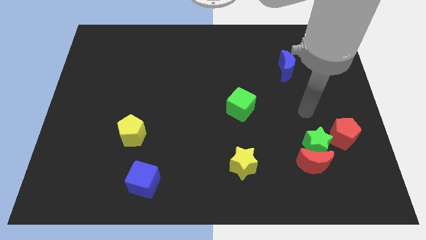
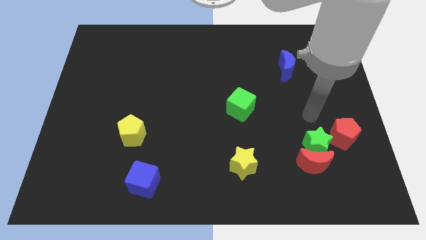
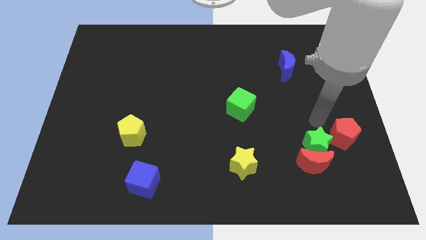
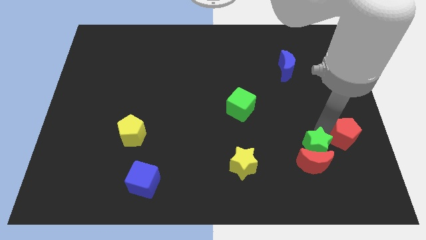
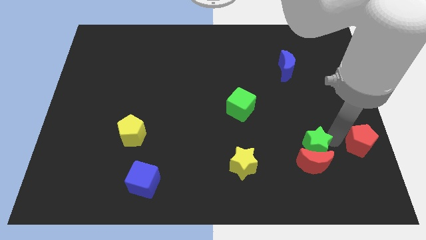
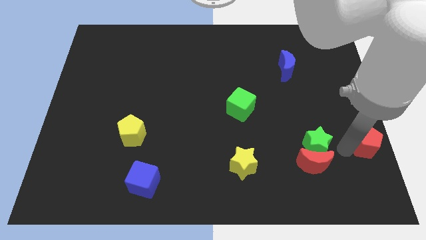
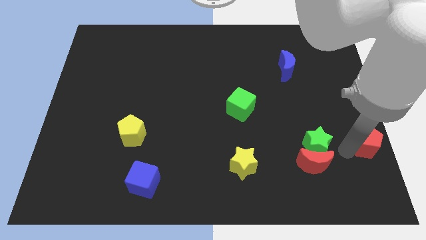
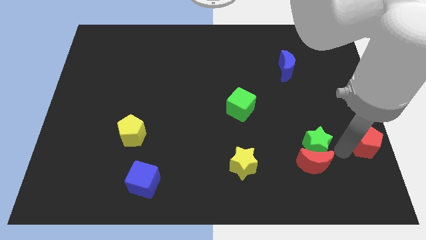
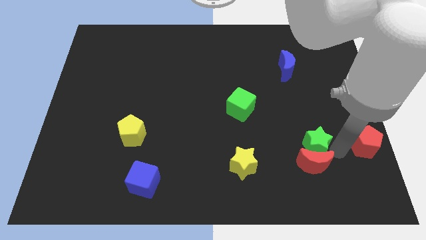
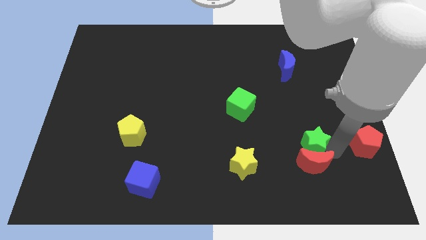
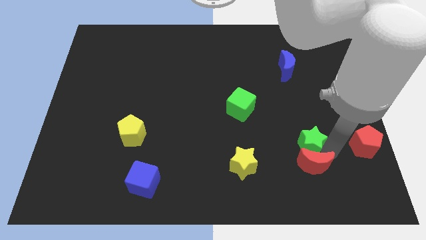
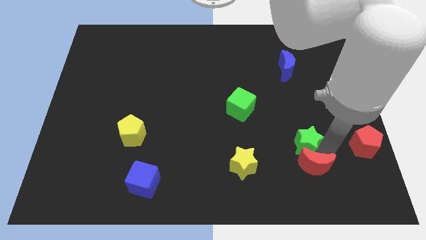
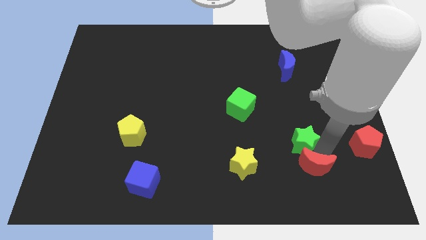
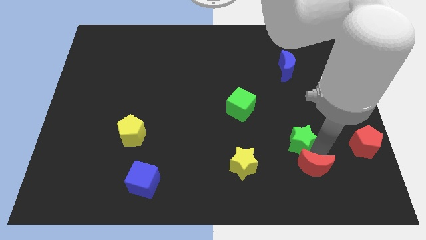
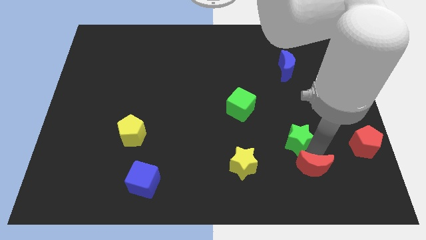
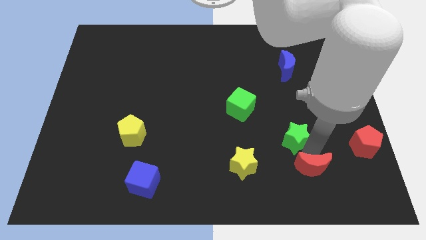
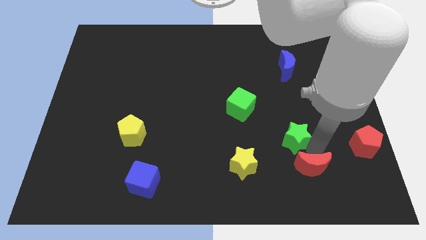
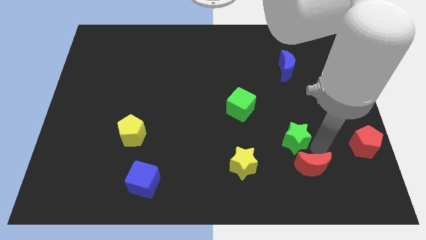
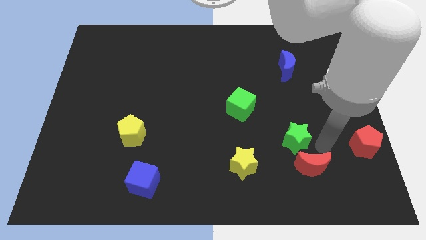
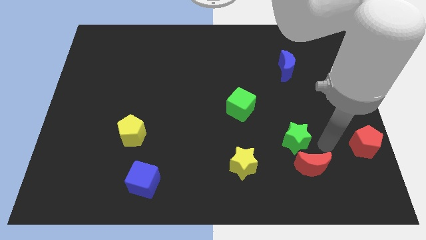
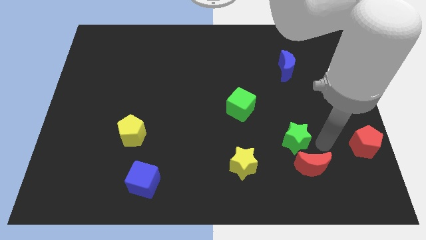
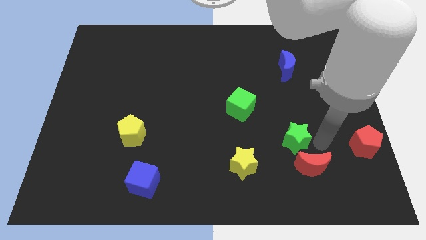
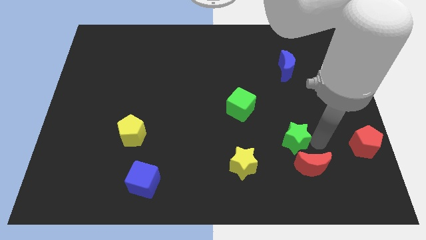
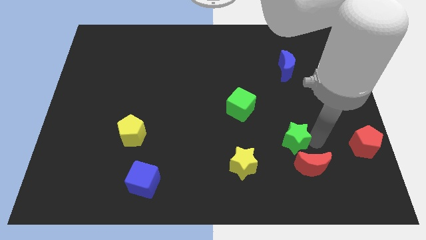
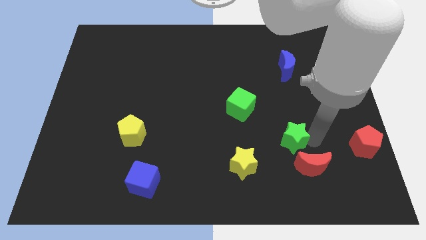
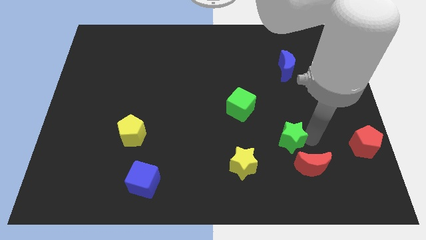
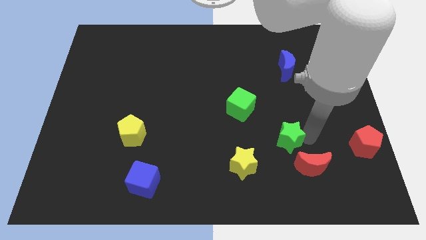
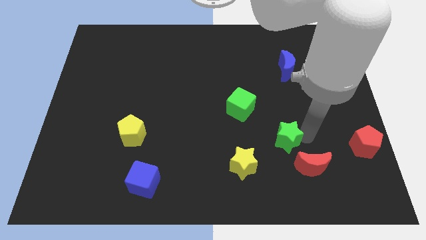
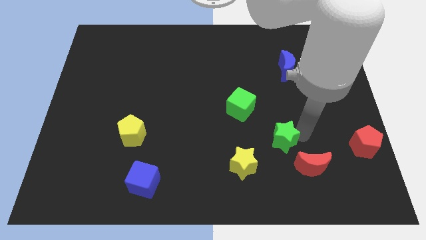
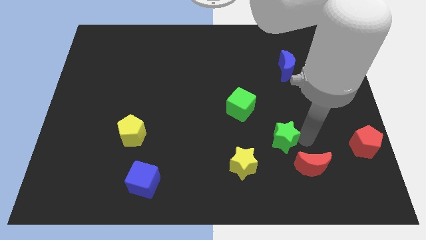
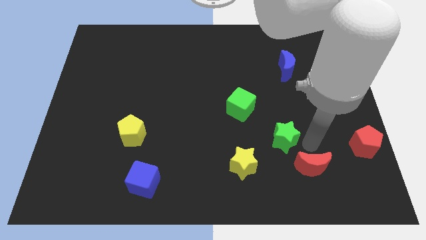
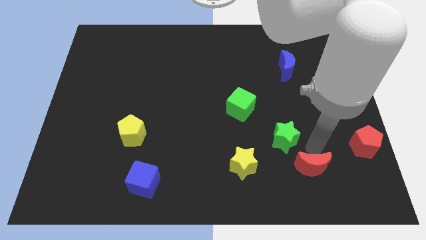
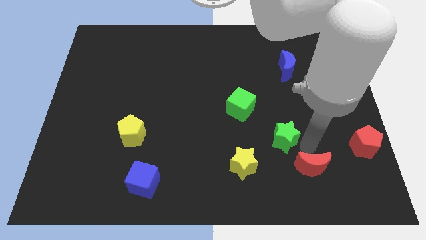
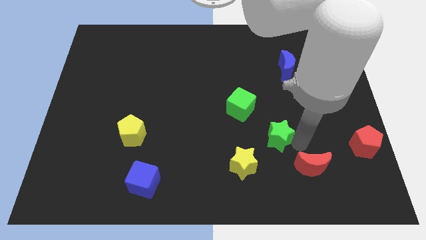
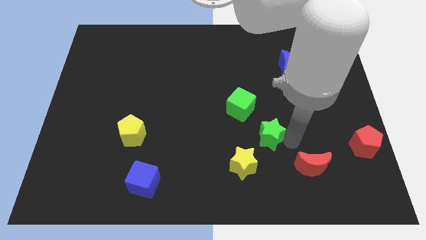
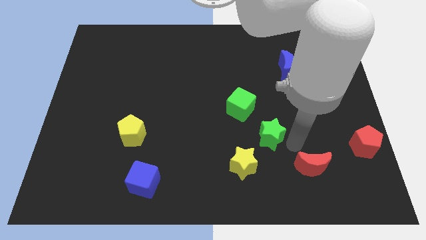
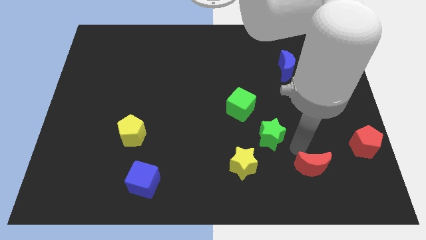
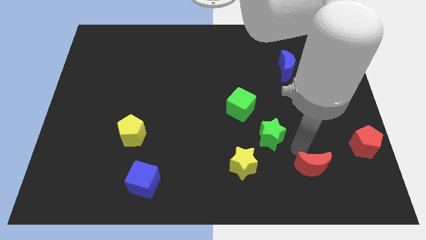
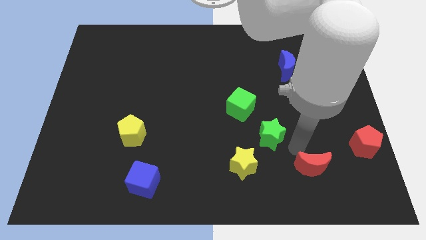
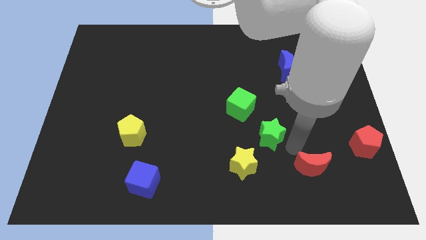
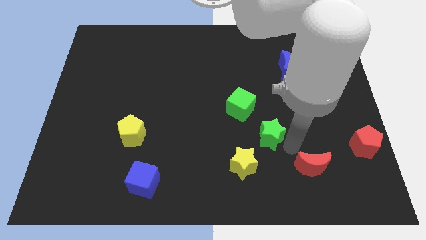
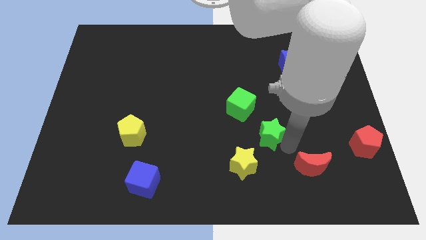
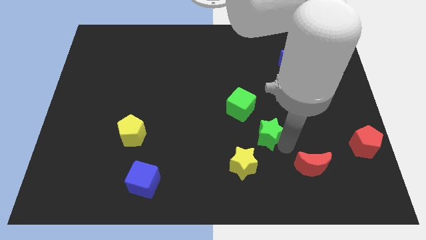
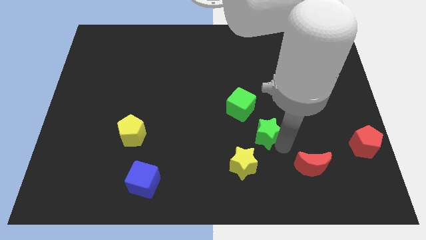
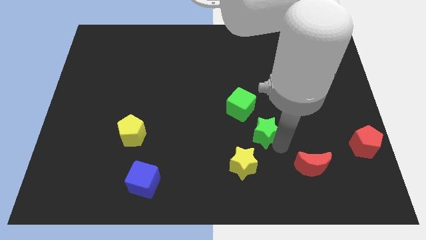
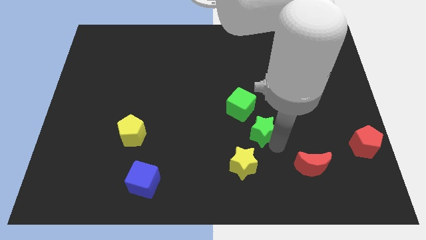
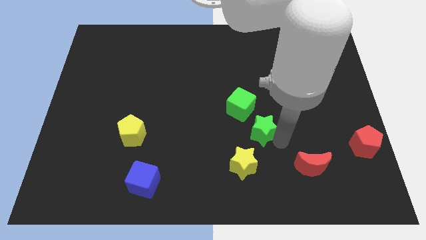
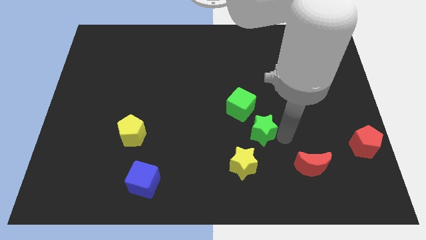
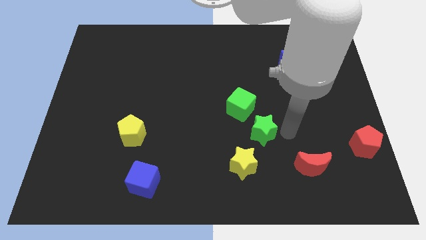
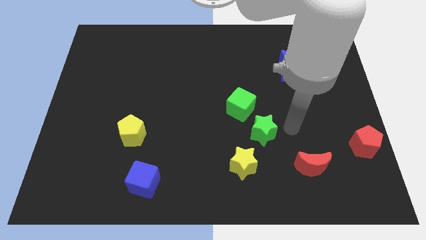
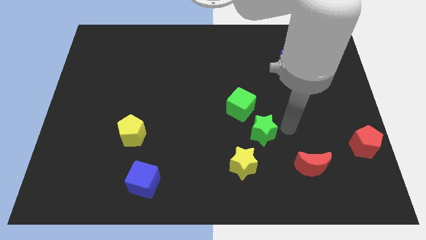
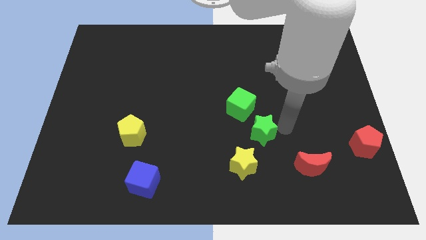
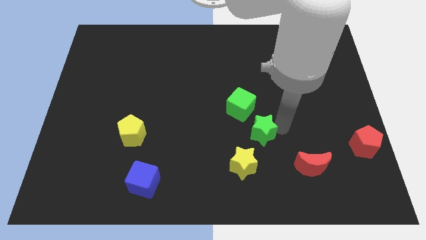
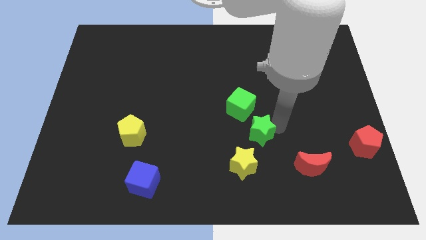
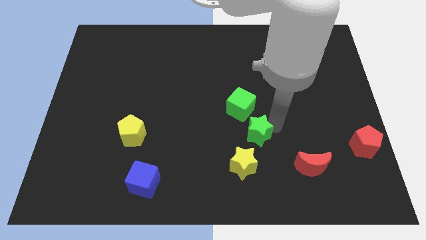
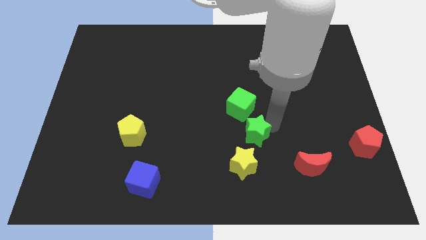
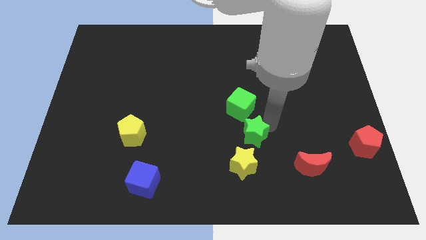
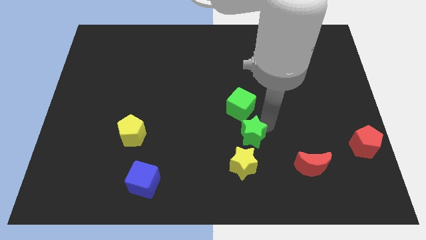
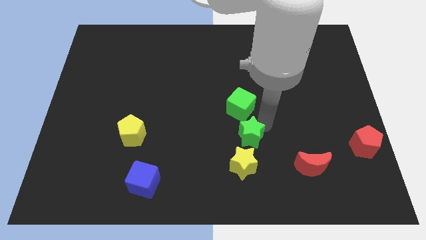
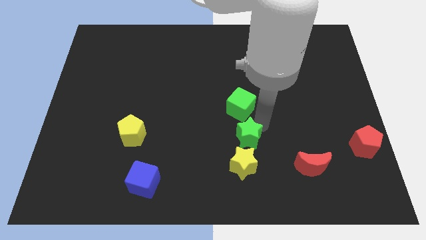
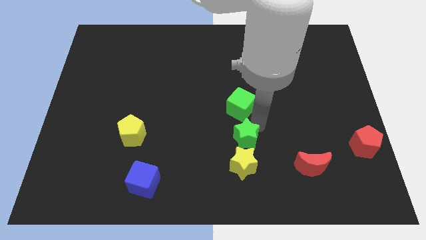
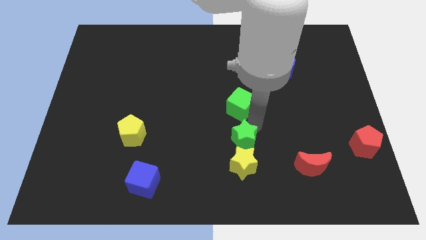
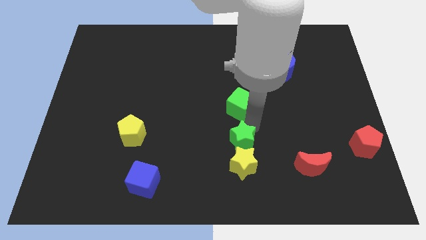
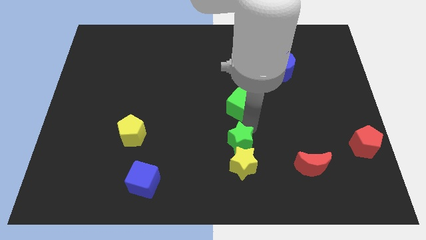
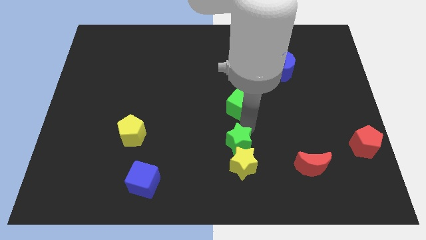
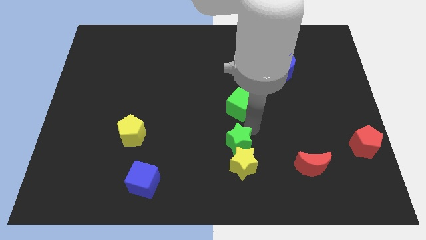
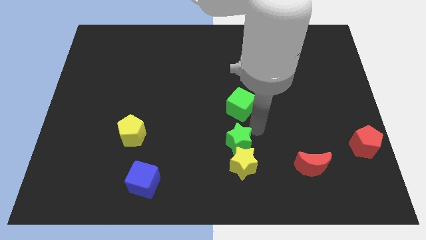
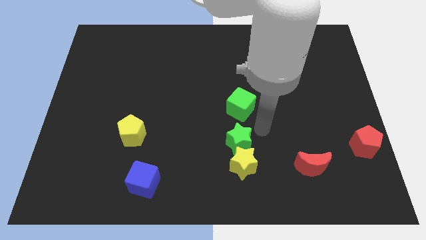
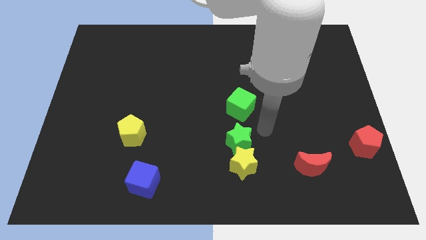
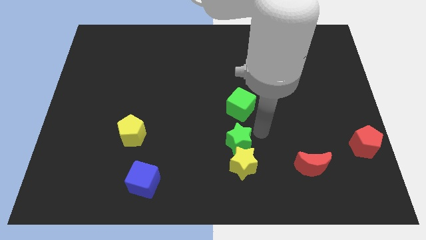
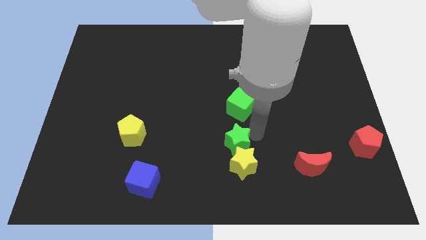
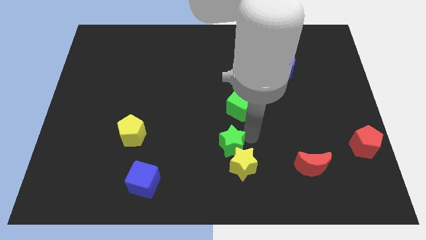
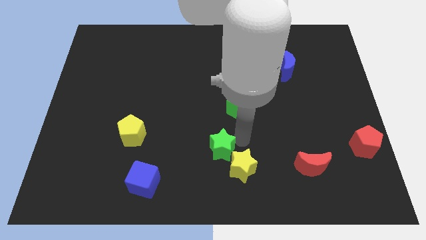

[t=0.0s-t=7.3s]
put the green star to the left of the yellow star
